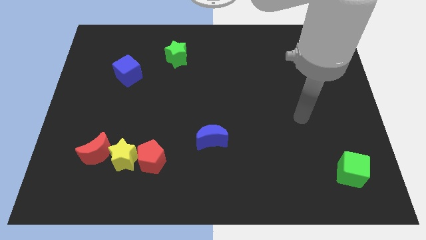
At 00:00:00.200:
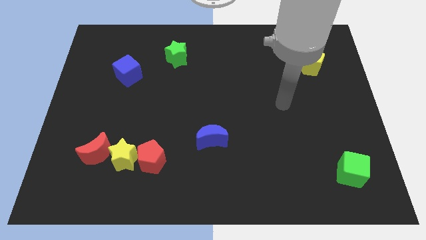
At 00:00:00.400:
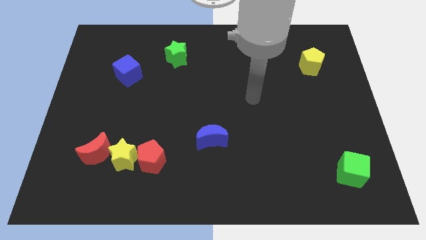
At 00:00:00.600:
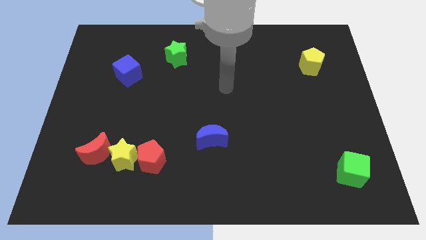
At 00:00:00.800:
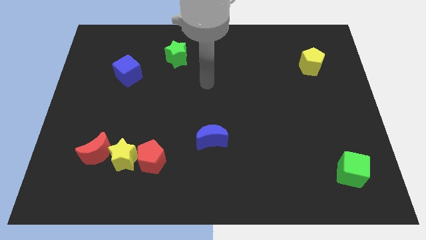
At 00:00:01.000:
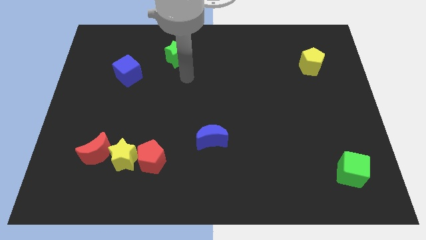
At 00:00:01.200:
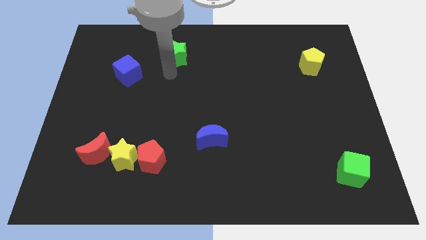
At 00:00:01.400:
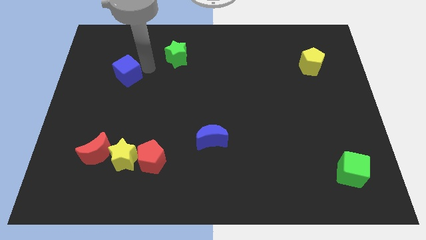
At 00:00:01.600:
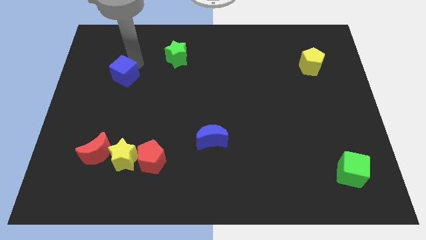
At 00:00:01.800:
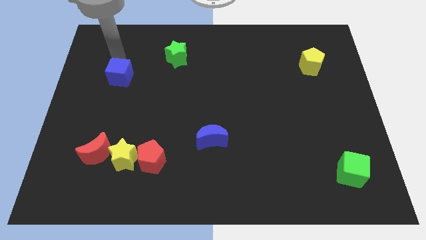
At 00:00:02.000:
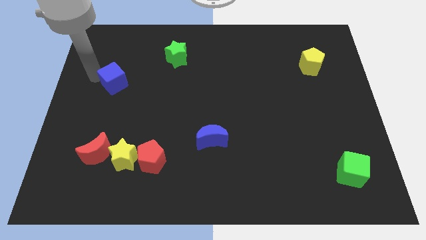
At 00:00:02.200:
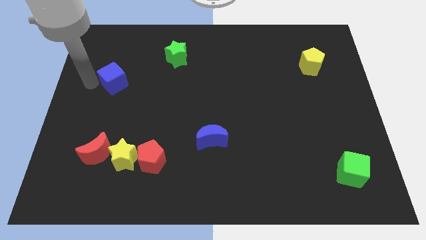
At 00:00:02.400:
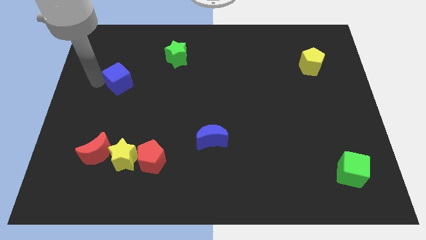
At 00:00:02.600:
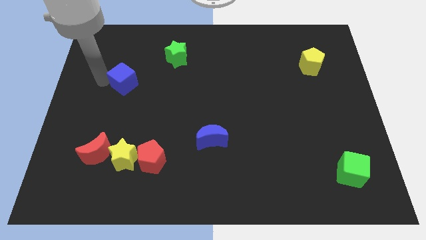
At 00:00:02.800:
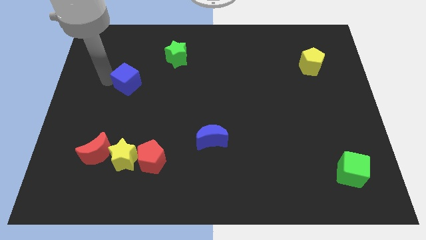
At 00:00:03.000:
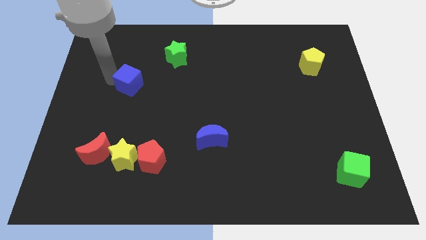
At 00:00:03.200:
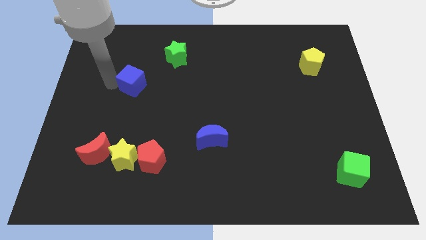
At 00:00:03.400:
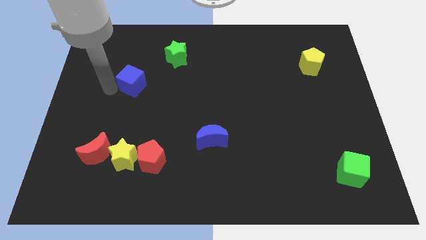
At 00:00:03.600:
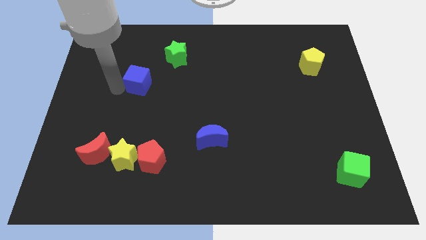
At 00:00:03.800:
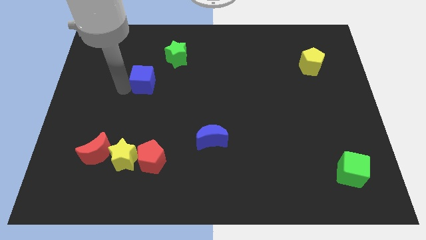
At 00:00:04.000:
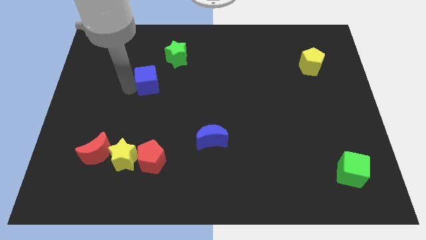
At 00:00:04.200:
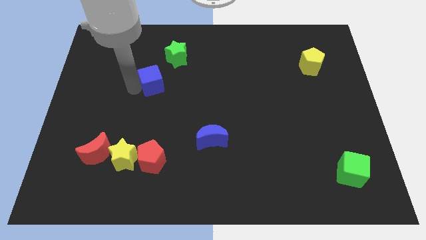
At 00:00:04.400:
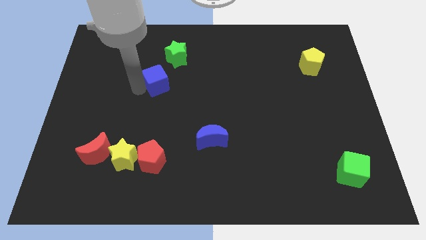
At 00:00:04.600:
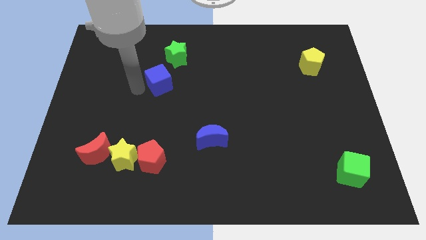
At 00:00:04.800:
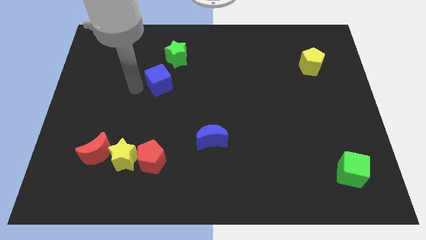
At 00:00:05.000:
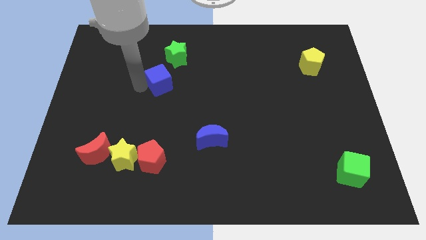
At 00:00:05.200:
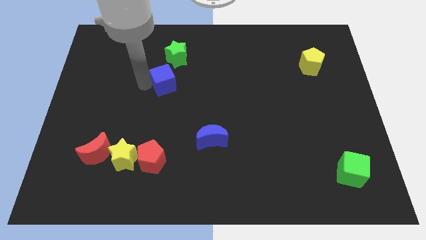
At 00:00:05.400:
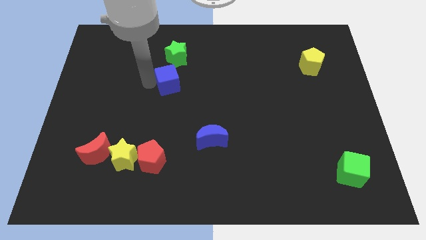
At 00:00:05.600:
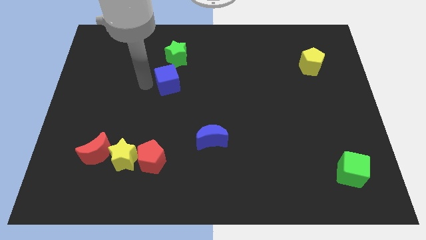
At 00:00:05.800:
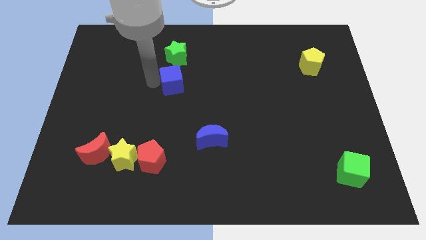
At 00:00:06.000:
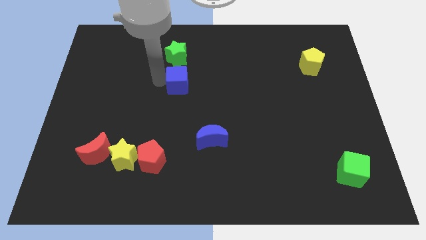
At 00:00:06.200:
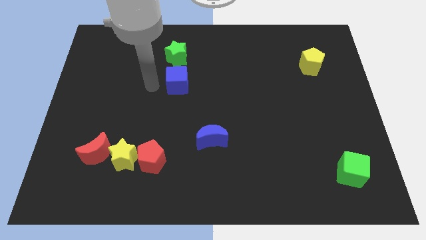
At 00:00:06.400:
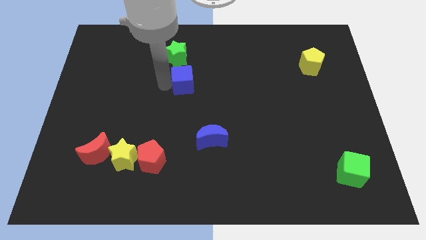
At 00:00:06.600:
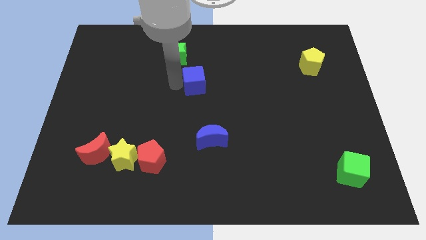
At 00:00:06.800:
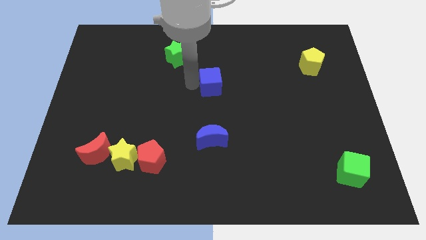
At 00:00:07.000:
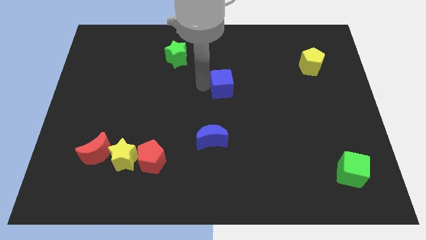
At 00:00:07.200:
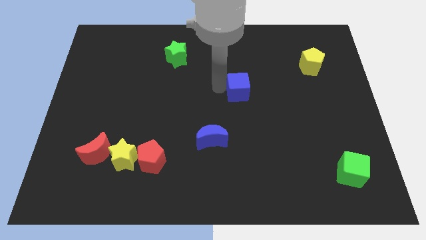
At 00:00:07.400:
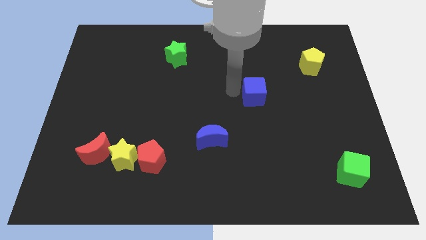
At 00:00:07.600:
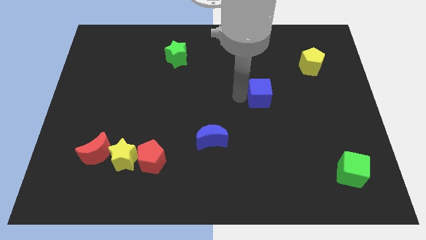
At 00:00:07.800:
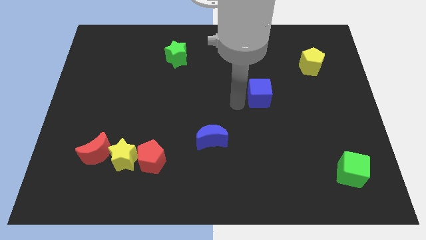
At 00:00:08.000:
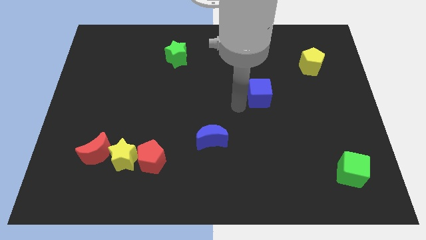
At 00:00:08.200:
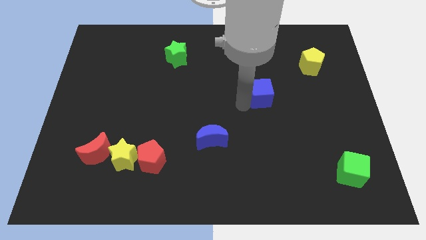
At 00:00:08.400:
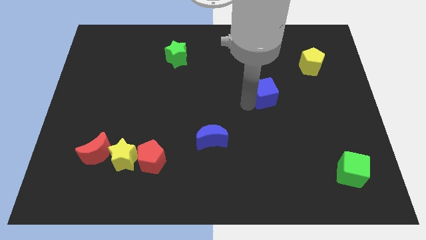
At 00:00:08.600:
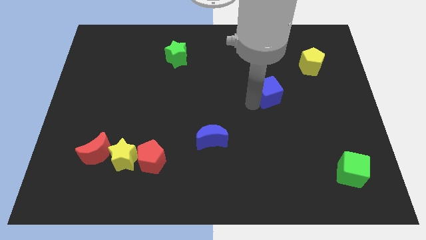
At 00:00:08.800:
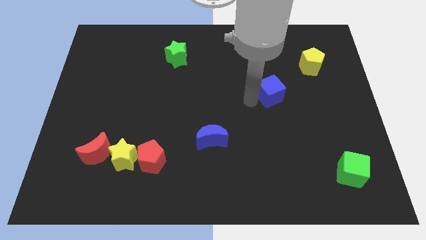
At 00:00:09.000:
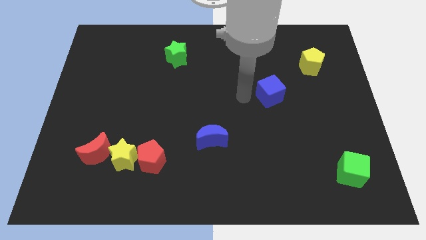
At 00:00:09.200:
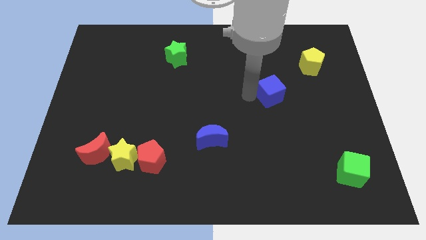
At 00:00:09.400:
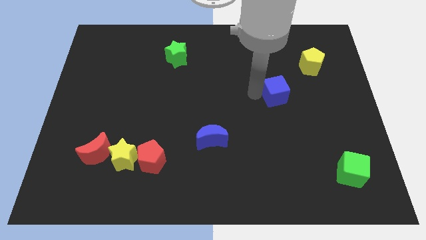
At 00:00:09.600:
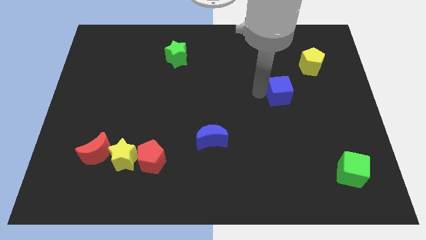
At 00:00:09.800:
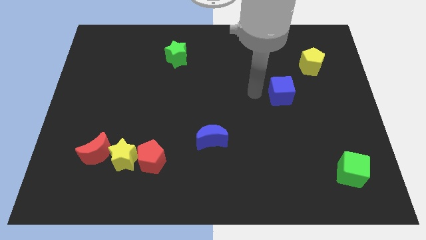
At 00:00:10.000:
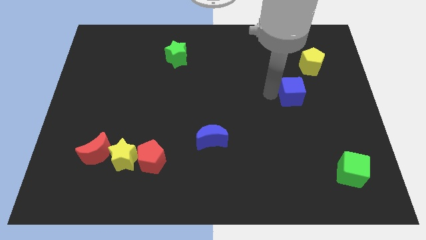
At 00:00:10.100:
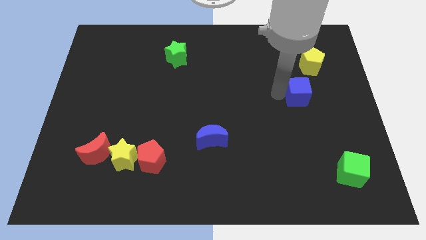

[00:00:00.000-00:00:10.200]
put the blue cube to the bottom of the yellow pentagon

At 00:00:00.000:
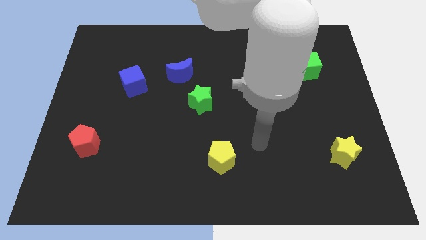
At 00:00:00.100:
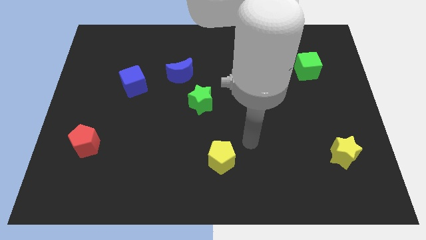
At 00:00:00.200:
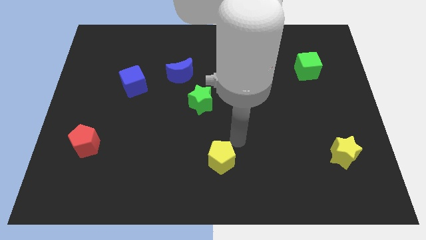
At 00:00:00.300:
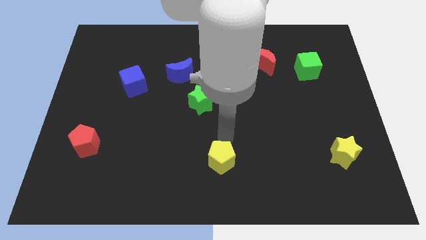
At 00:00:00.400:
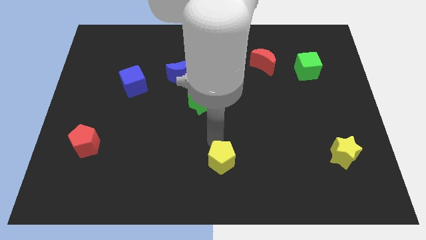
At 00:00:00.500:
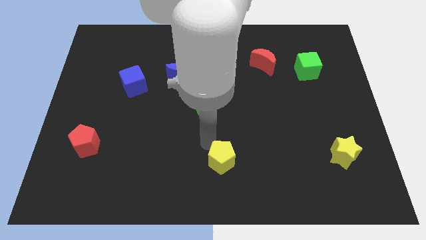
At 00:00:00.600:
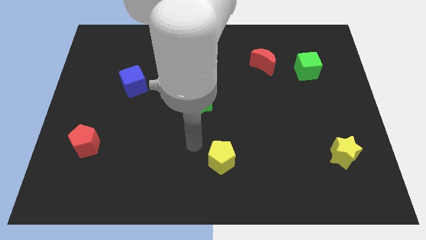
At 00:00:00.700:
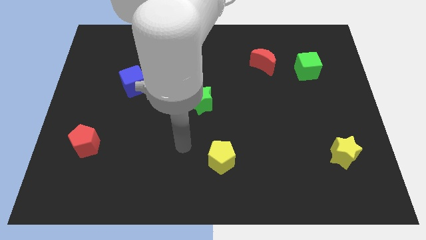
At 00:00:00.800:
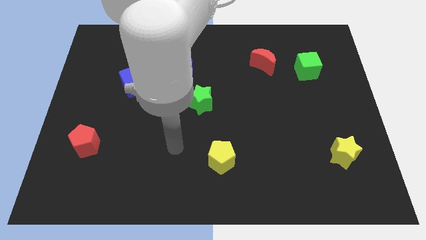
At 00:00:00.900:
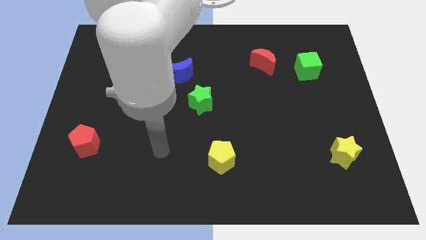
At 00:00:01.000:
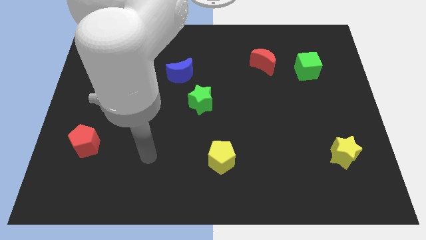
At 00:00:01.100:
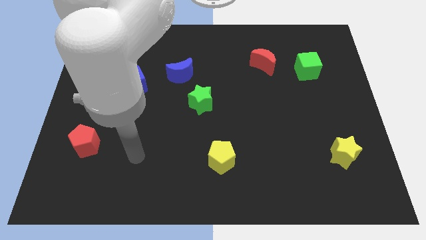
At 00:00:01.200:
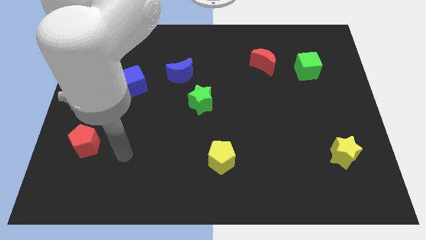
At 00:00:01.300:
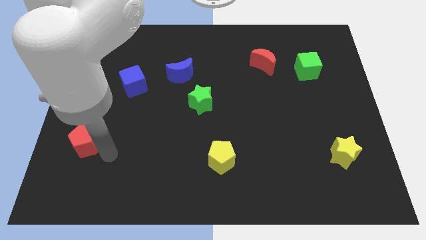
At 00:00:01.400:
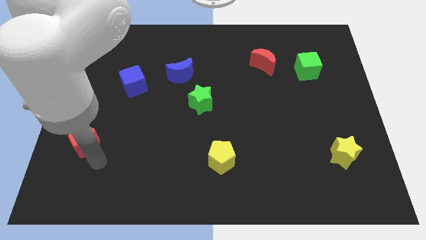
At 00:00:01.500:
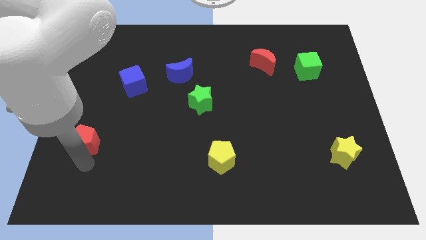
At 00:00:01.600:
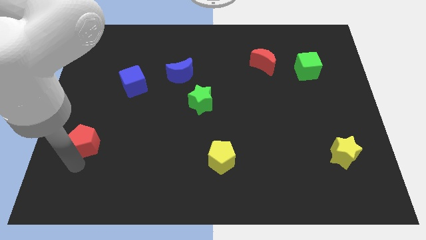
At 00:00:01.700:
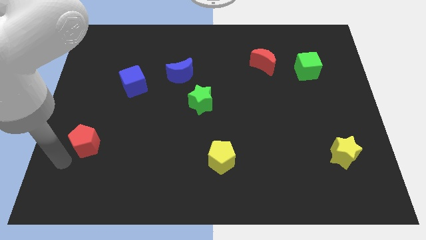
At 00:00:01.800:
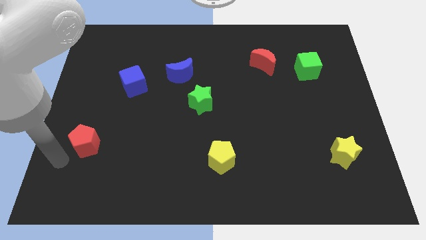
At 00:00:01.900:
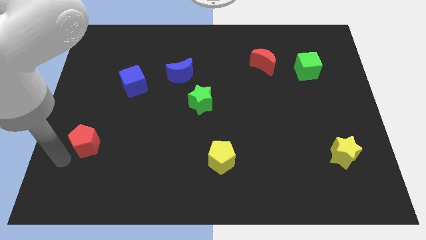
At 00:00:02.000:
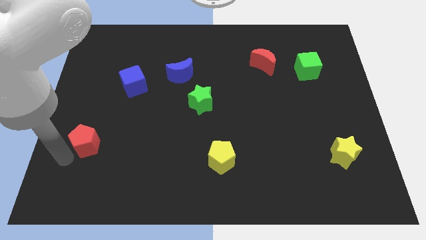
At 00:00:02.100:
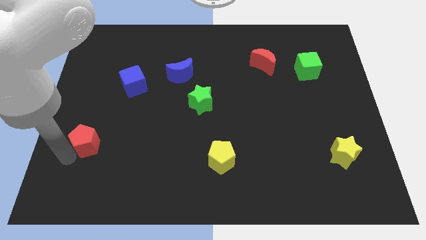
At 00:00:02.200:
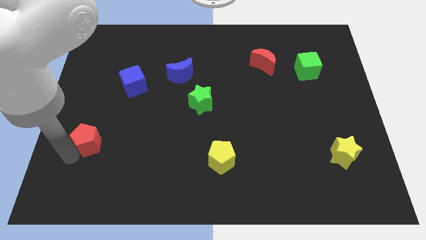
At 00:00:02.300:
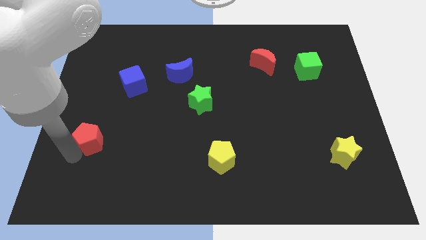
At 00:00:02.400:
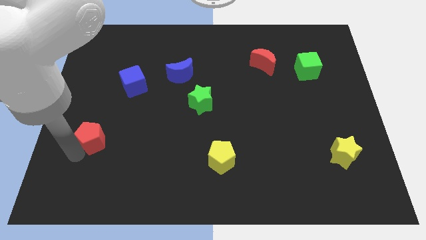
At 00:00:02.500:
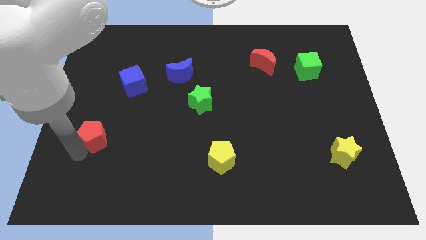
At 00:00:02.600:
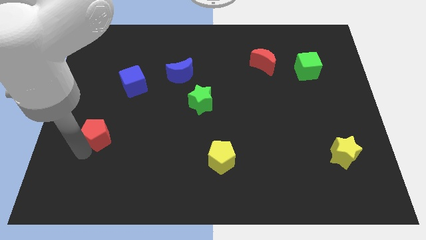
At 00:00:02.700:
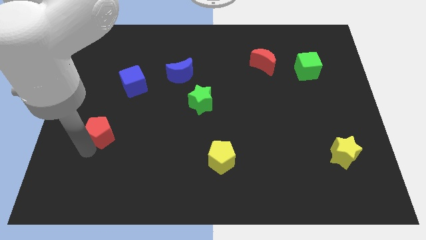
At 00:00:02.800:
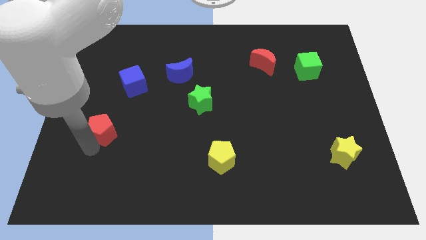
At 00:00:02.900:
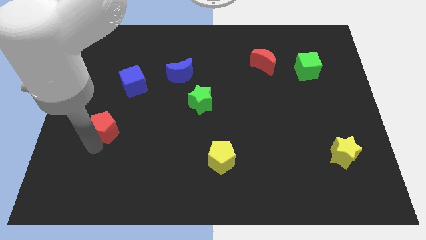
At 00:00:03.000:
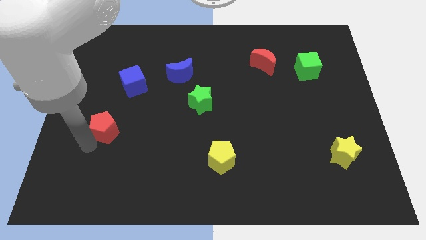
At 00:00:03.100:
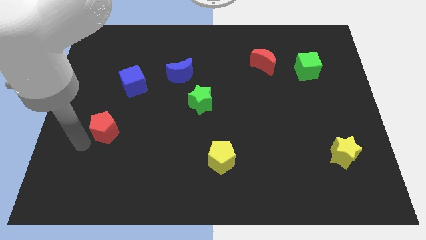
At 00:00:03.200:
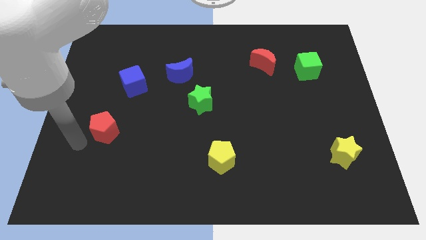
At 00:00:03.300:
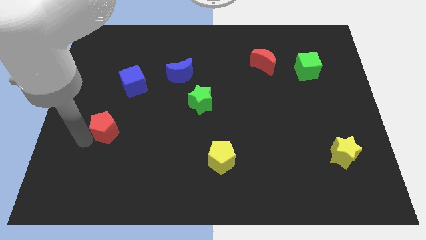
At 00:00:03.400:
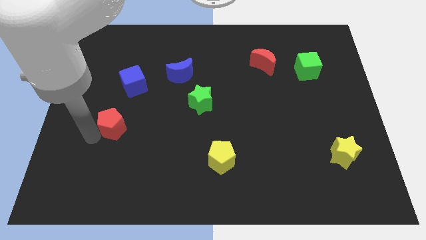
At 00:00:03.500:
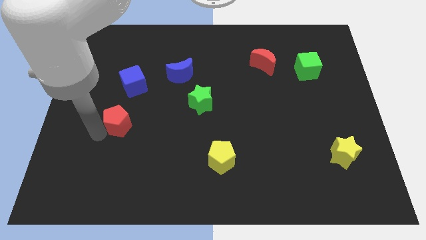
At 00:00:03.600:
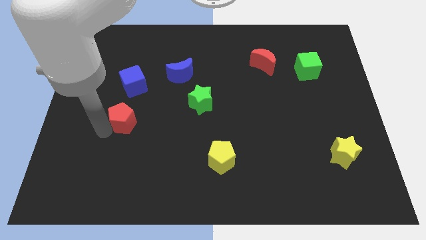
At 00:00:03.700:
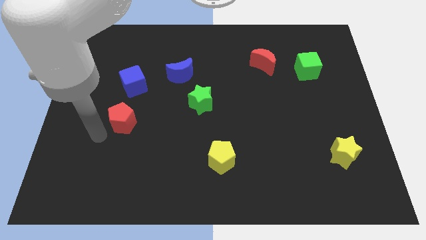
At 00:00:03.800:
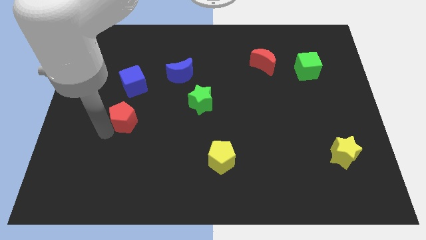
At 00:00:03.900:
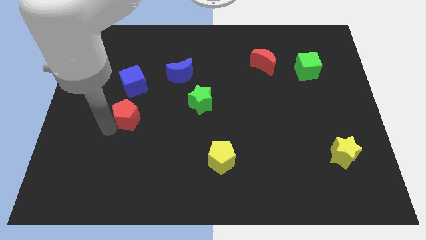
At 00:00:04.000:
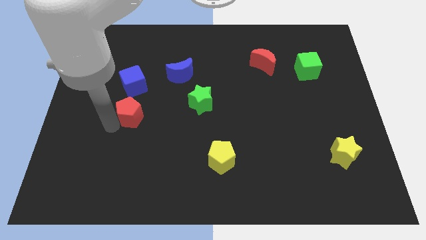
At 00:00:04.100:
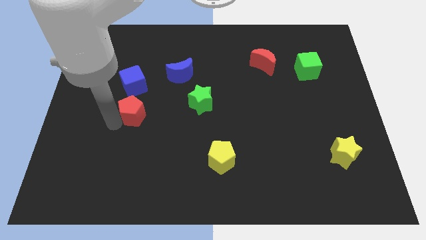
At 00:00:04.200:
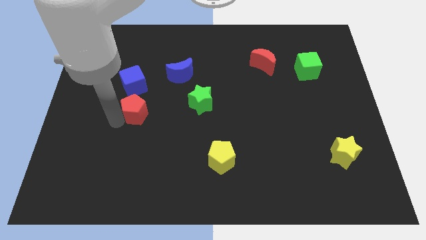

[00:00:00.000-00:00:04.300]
push the red pentagon to the left side of the green star
